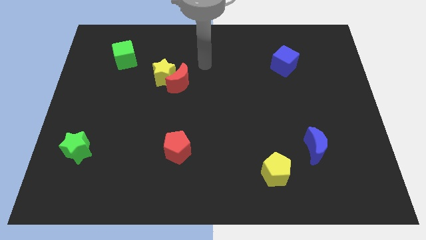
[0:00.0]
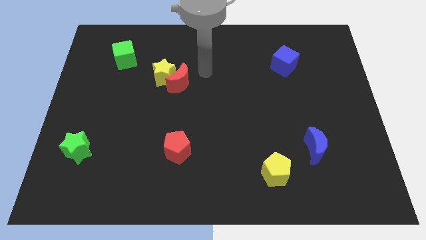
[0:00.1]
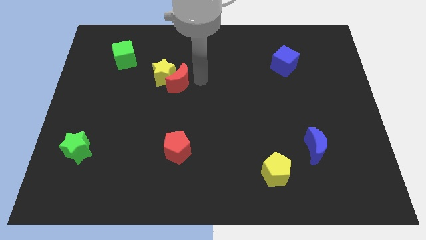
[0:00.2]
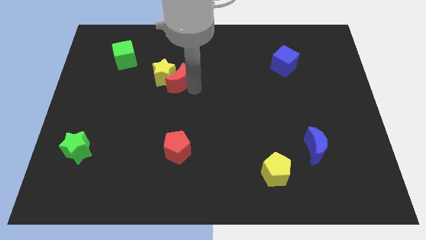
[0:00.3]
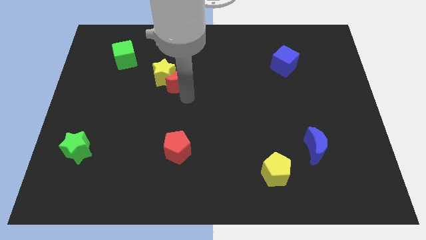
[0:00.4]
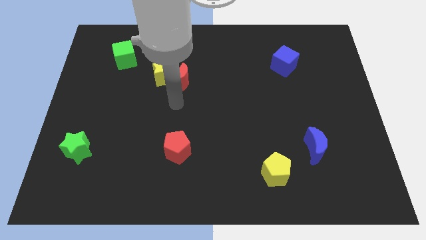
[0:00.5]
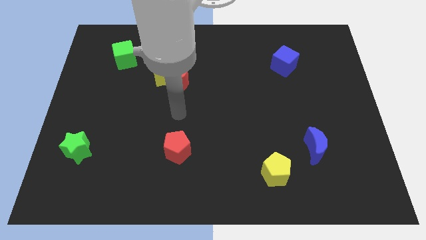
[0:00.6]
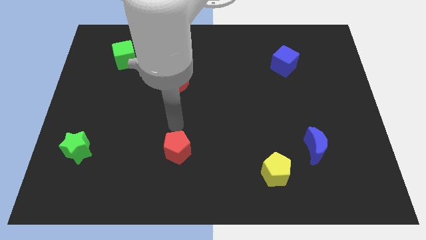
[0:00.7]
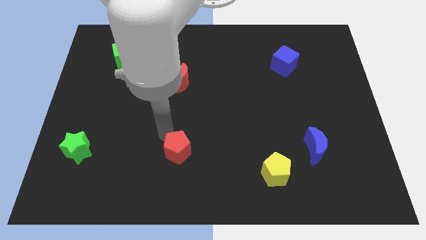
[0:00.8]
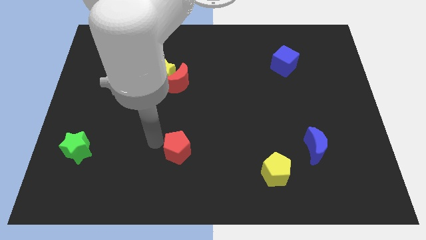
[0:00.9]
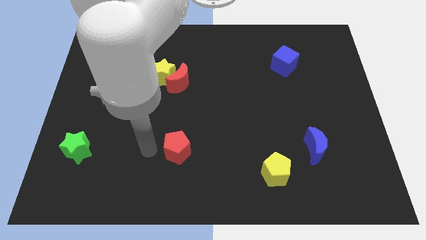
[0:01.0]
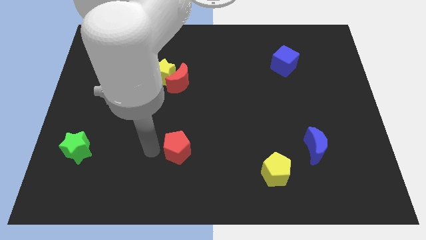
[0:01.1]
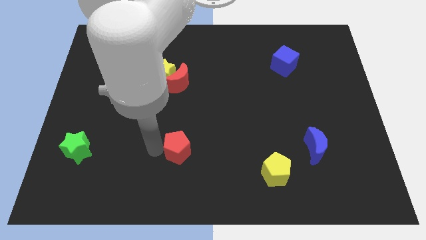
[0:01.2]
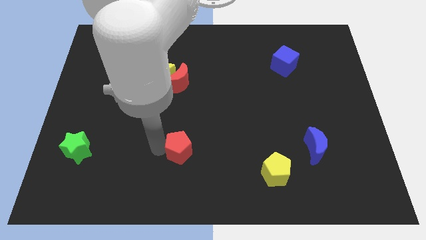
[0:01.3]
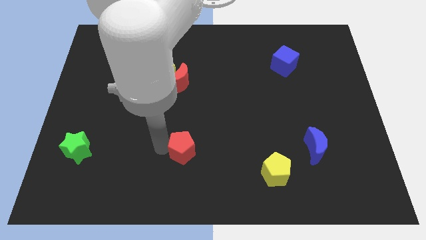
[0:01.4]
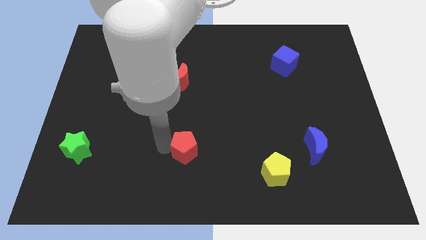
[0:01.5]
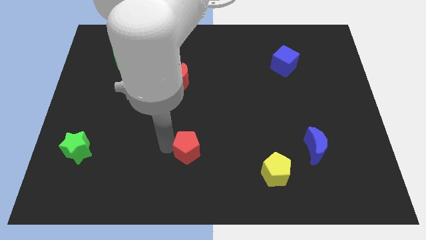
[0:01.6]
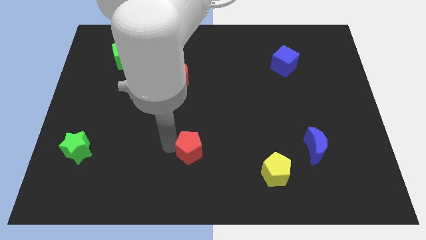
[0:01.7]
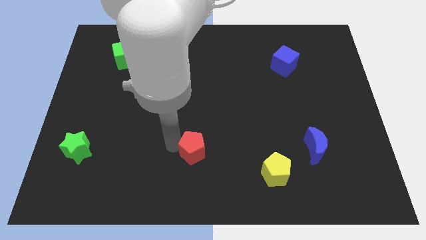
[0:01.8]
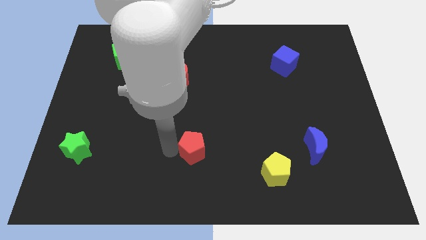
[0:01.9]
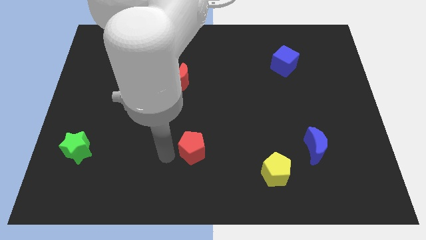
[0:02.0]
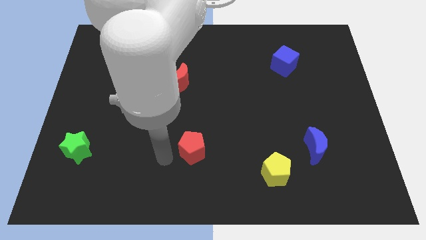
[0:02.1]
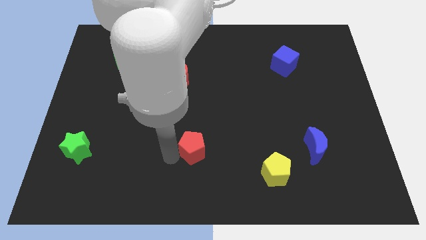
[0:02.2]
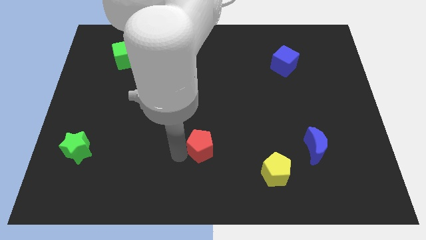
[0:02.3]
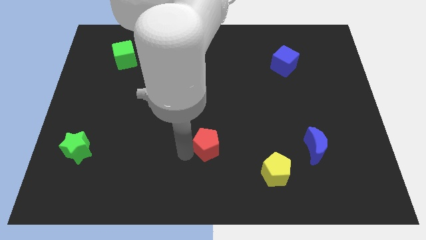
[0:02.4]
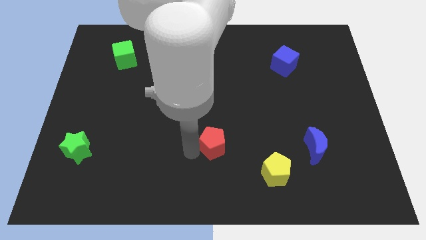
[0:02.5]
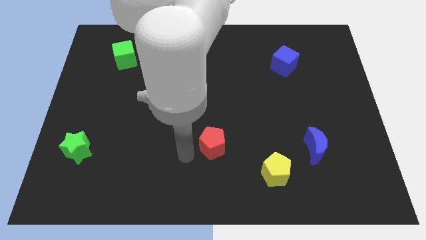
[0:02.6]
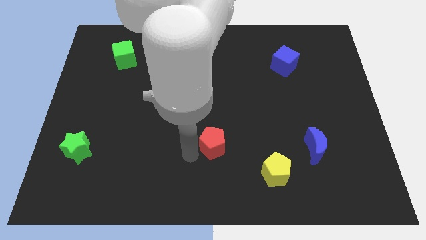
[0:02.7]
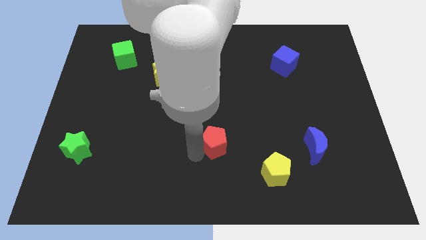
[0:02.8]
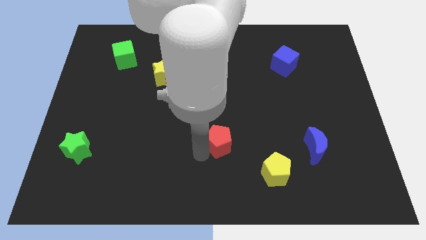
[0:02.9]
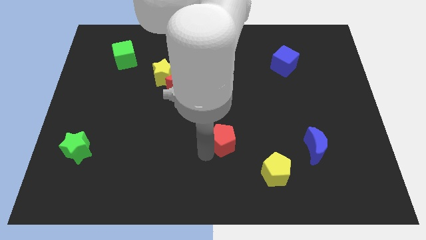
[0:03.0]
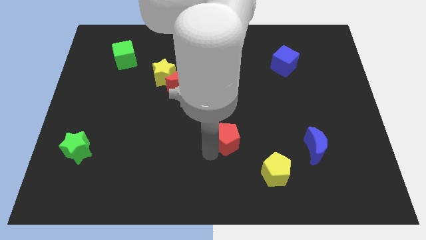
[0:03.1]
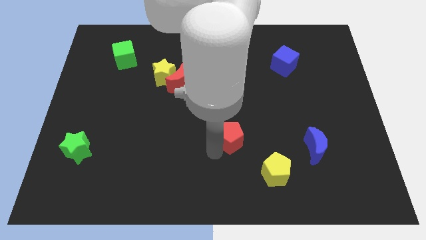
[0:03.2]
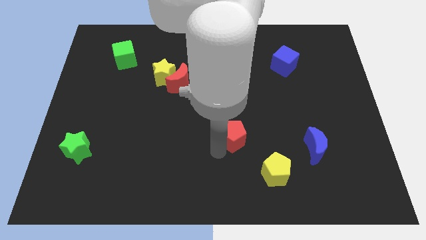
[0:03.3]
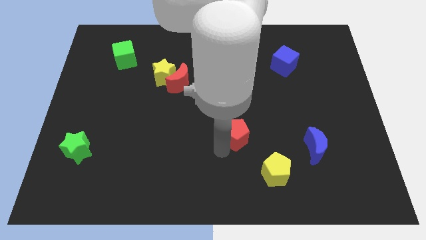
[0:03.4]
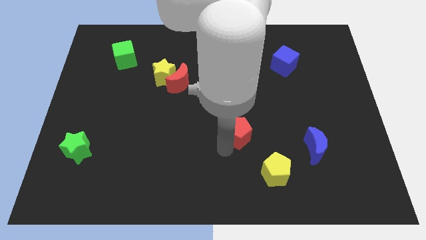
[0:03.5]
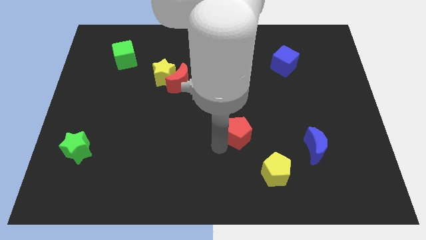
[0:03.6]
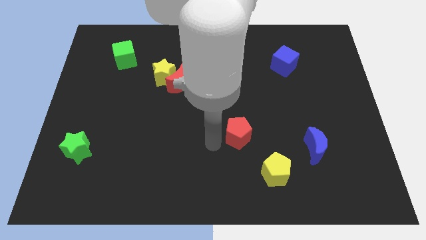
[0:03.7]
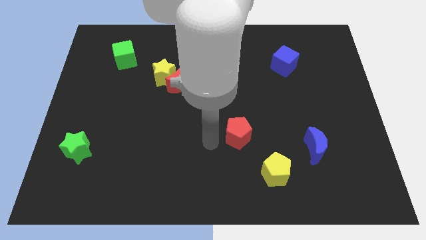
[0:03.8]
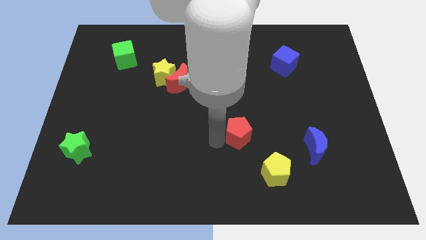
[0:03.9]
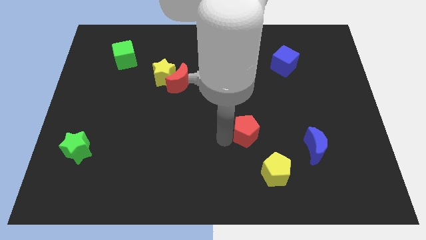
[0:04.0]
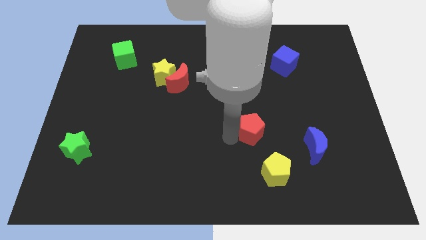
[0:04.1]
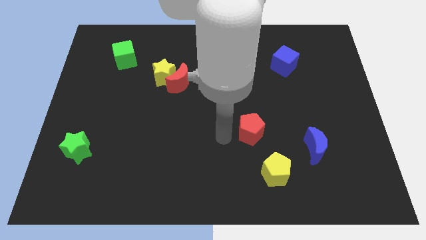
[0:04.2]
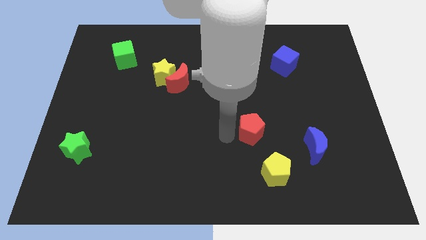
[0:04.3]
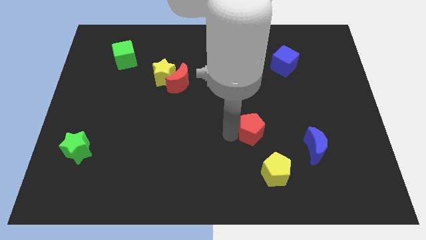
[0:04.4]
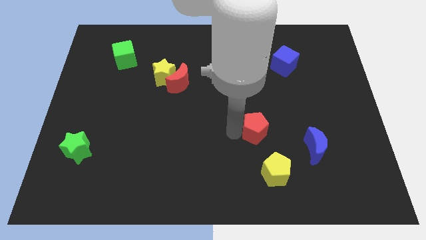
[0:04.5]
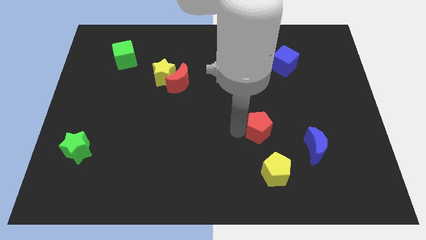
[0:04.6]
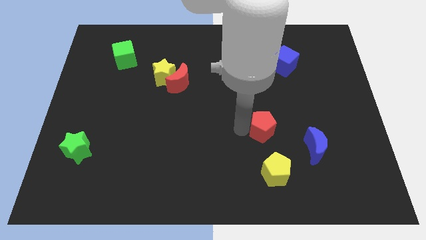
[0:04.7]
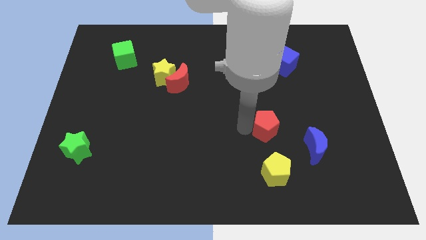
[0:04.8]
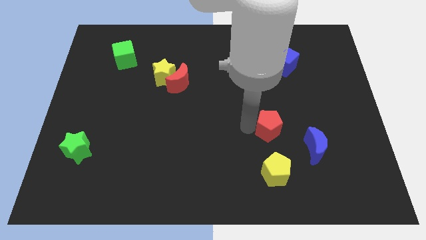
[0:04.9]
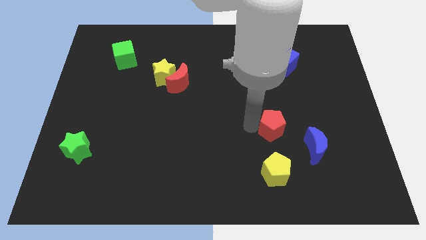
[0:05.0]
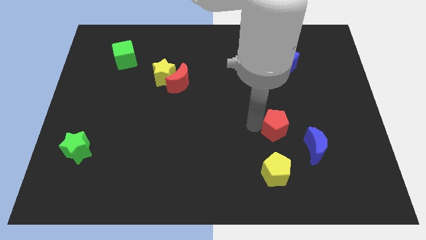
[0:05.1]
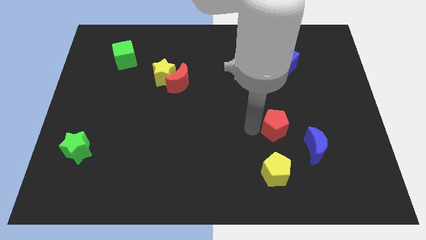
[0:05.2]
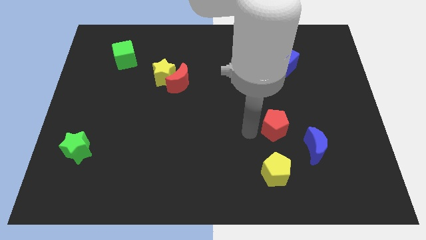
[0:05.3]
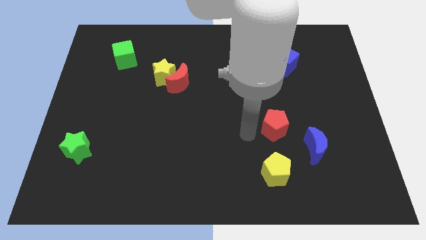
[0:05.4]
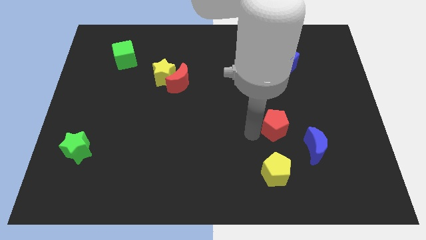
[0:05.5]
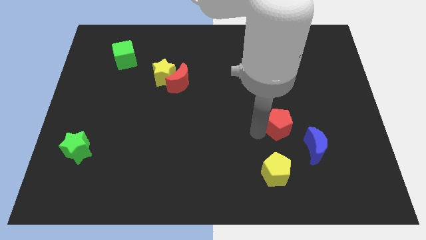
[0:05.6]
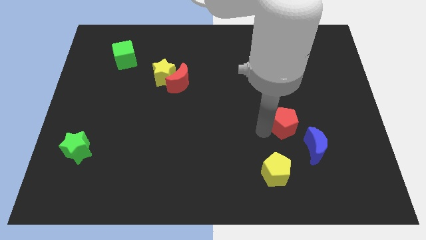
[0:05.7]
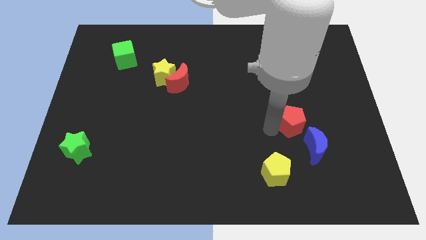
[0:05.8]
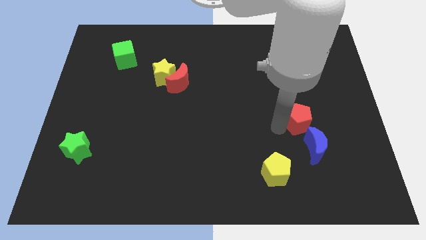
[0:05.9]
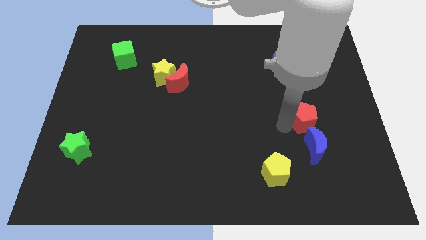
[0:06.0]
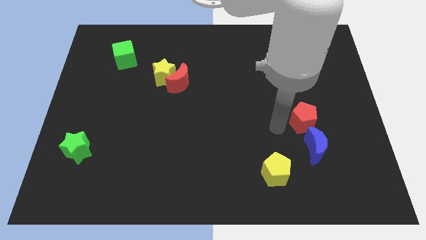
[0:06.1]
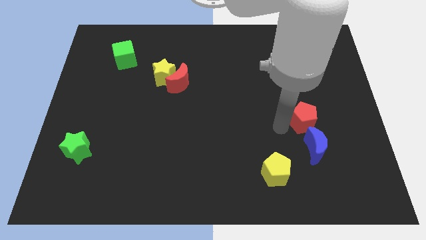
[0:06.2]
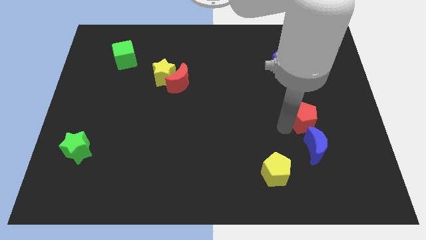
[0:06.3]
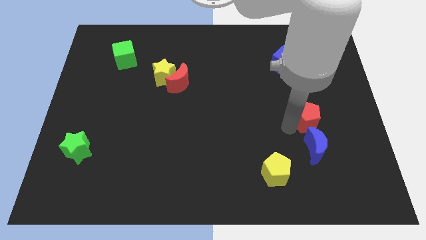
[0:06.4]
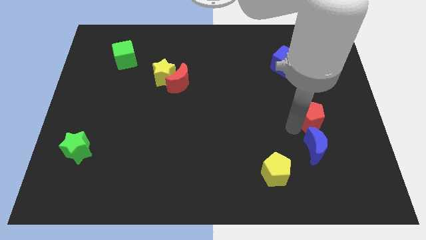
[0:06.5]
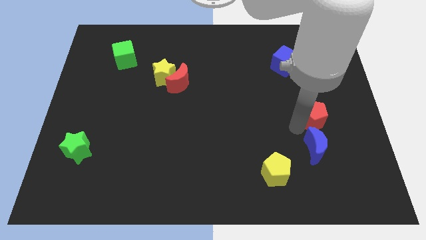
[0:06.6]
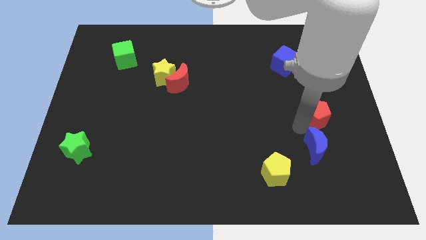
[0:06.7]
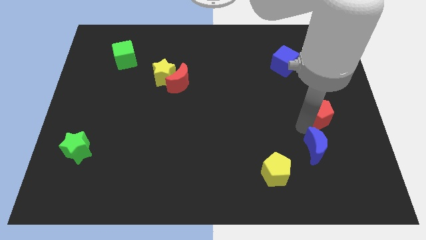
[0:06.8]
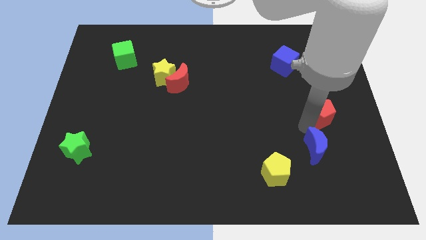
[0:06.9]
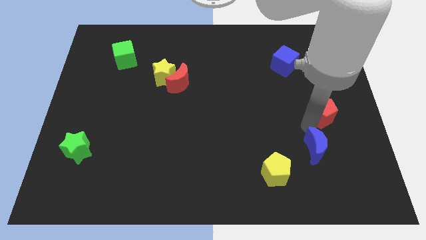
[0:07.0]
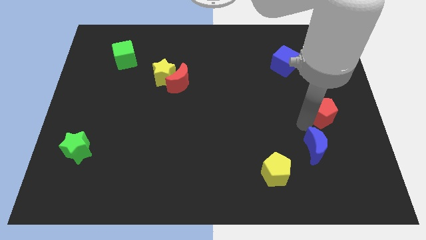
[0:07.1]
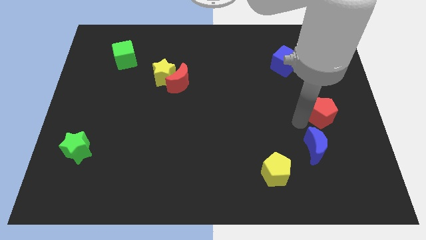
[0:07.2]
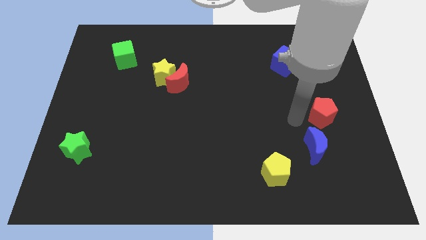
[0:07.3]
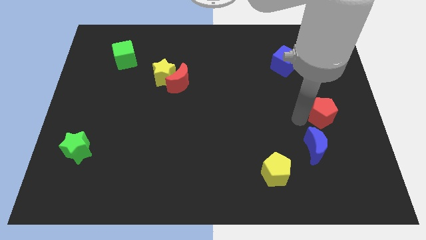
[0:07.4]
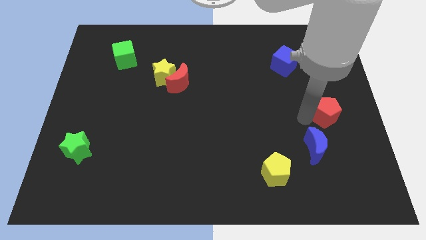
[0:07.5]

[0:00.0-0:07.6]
put the red pentagon to the right side
